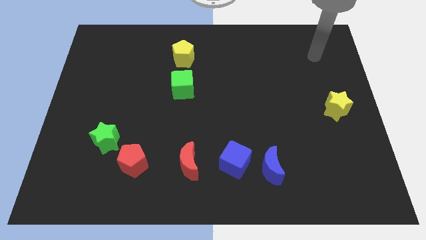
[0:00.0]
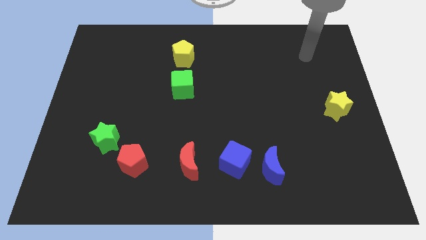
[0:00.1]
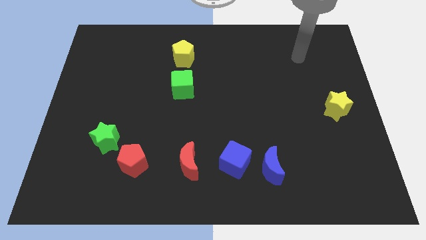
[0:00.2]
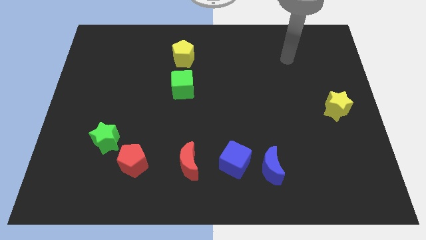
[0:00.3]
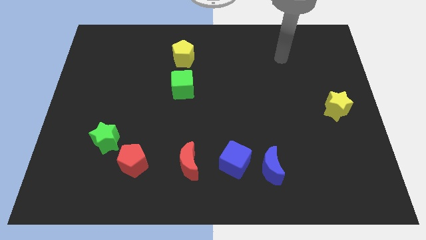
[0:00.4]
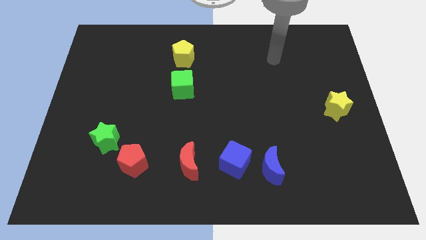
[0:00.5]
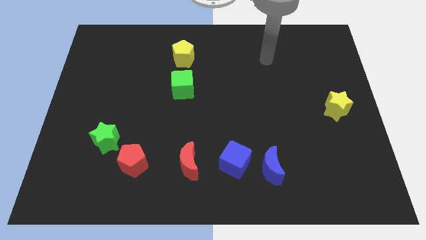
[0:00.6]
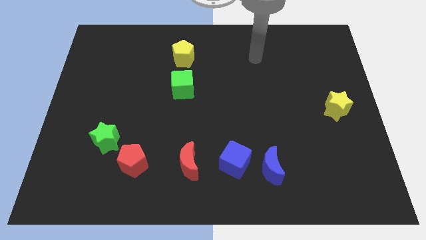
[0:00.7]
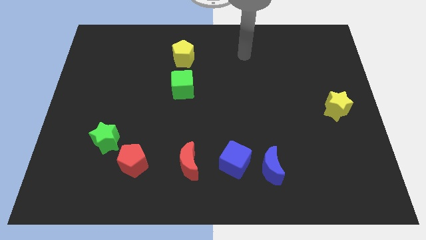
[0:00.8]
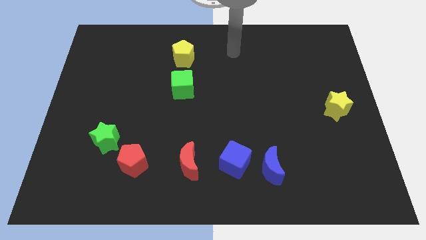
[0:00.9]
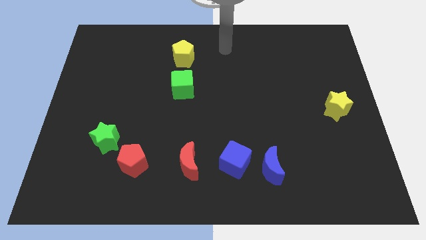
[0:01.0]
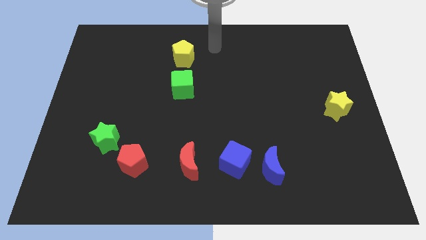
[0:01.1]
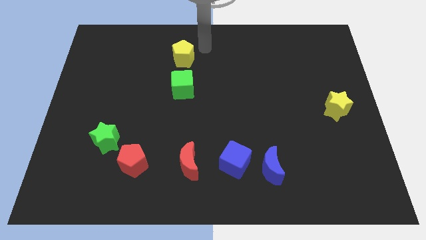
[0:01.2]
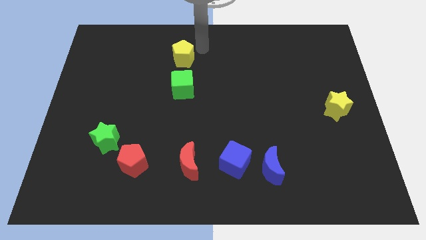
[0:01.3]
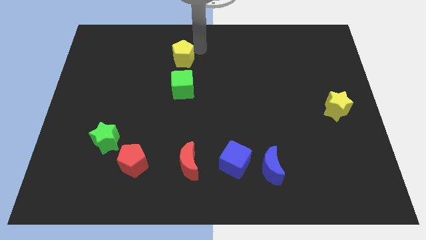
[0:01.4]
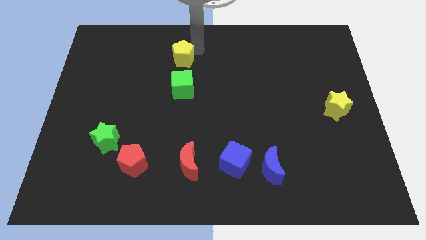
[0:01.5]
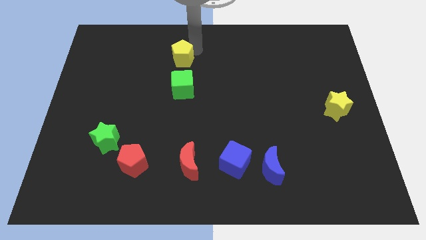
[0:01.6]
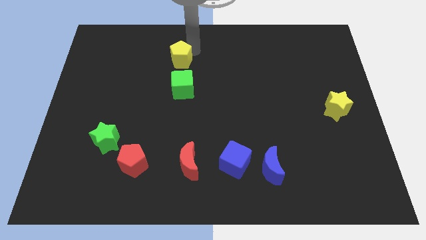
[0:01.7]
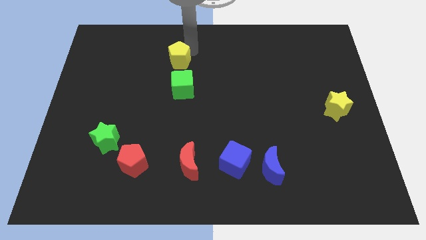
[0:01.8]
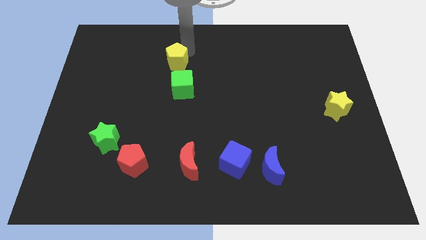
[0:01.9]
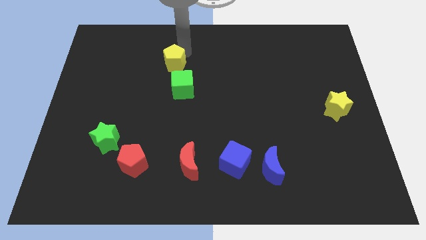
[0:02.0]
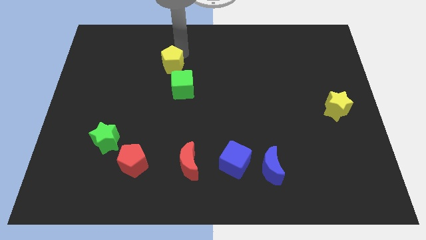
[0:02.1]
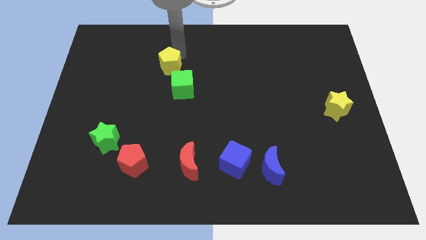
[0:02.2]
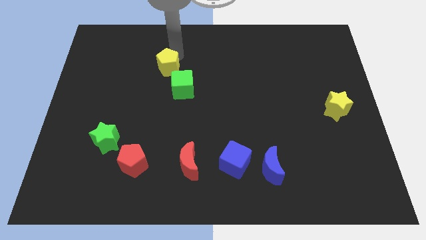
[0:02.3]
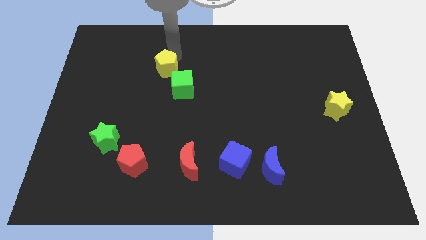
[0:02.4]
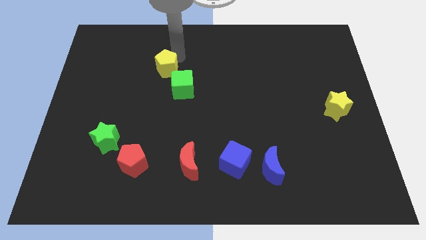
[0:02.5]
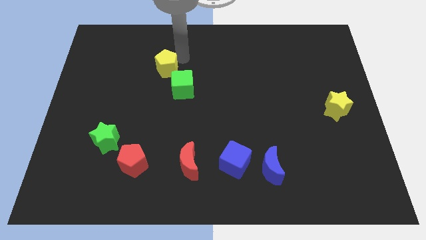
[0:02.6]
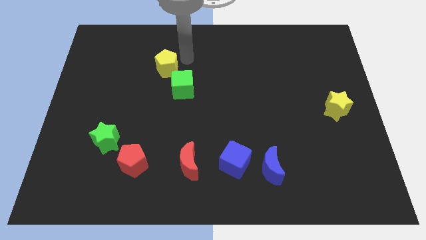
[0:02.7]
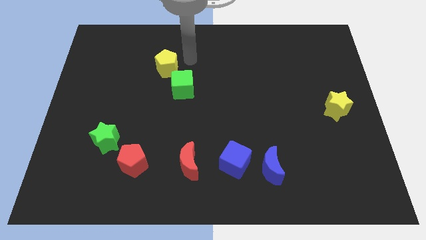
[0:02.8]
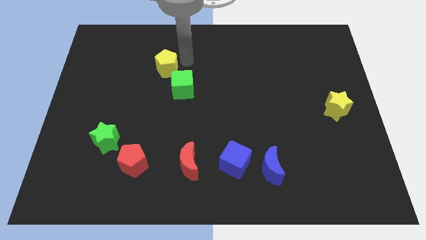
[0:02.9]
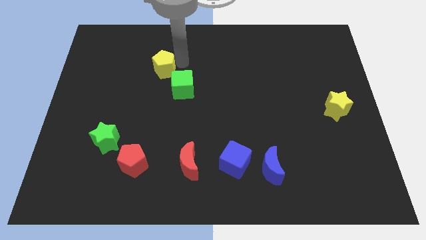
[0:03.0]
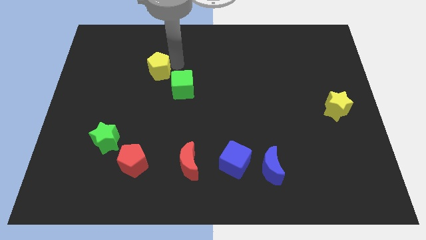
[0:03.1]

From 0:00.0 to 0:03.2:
push the yellow pentagon a bit down and left diagonally

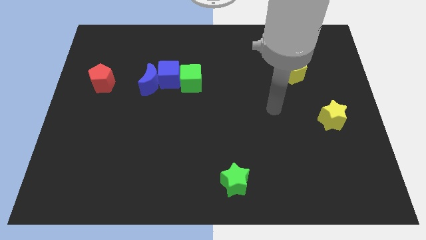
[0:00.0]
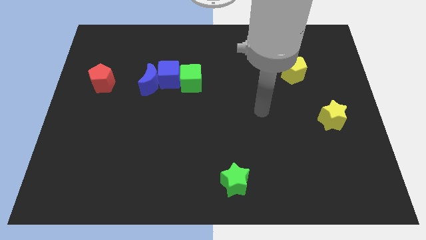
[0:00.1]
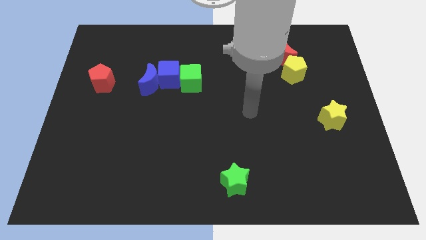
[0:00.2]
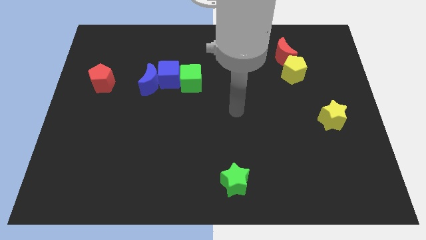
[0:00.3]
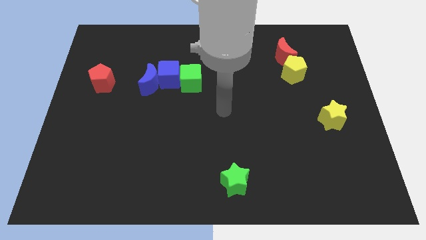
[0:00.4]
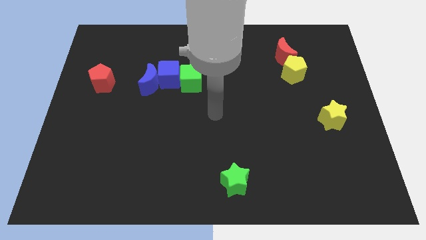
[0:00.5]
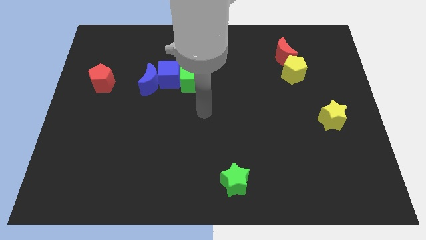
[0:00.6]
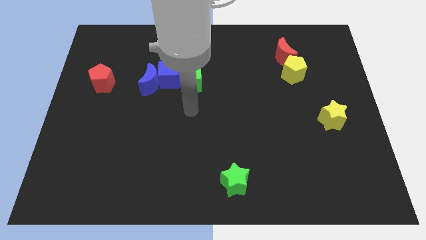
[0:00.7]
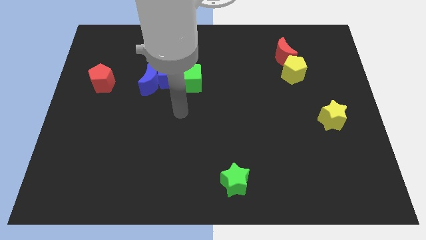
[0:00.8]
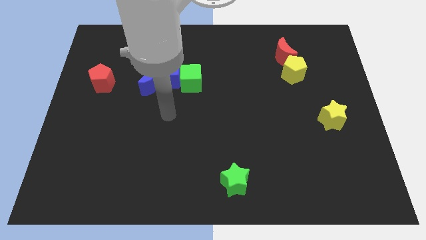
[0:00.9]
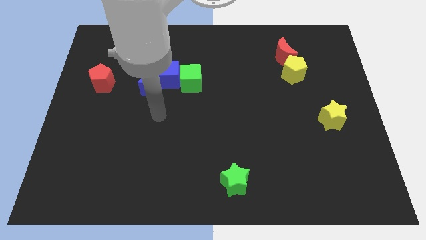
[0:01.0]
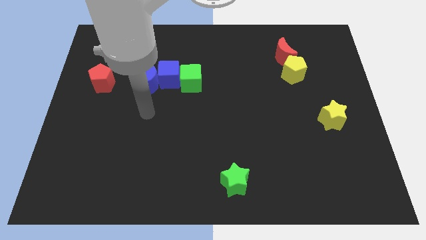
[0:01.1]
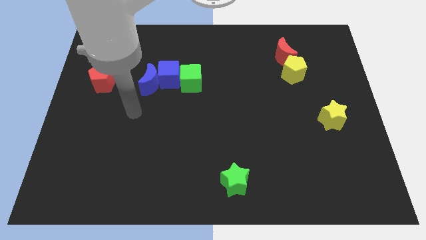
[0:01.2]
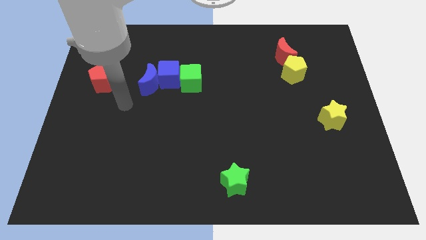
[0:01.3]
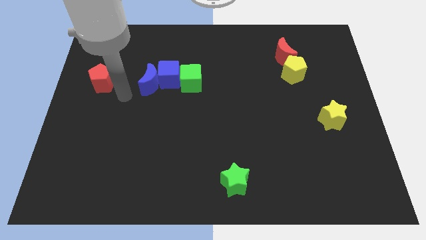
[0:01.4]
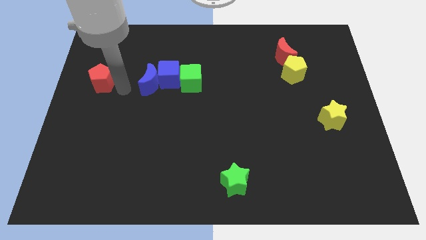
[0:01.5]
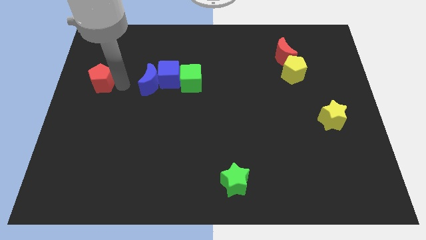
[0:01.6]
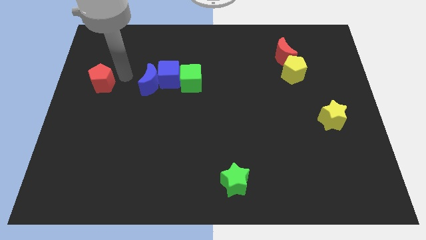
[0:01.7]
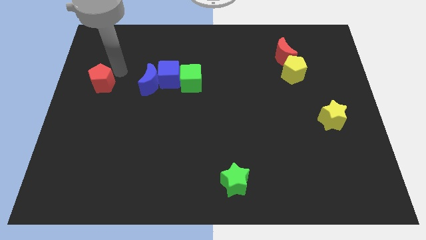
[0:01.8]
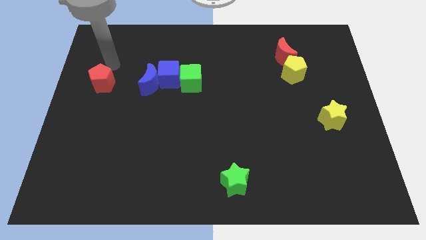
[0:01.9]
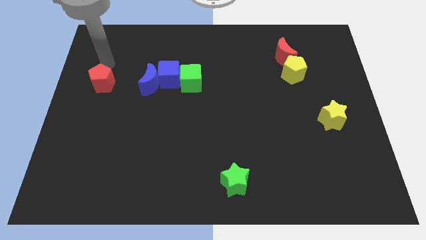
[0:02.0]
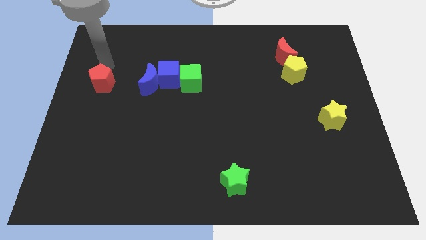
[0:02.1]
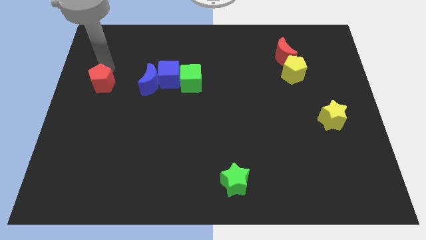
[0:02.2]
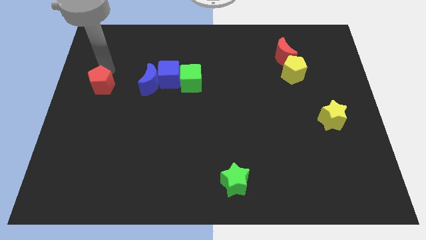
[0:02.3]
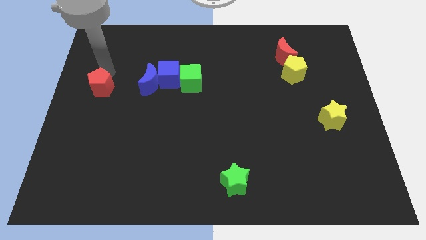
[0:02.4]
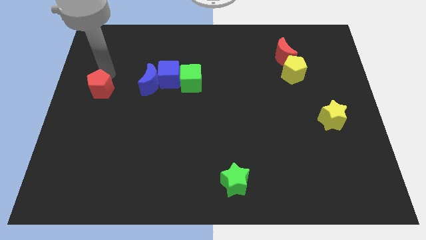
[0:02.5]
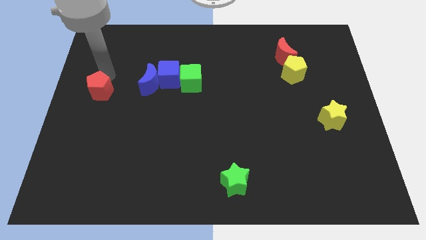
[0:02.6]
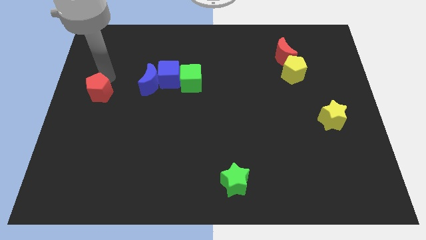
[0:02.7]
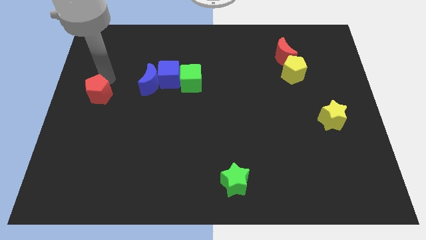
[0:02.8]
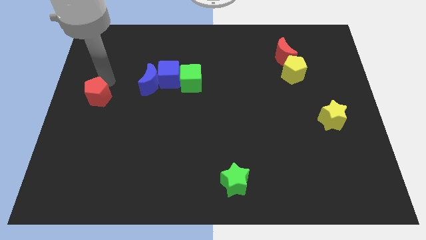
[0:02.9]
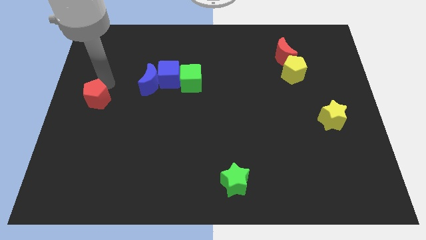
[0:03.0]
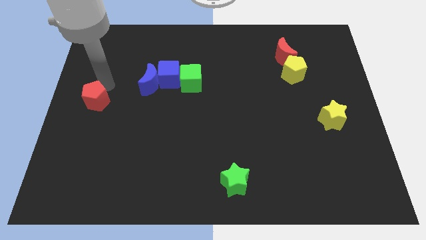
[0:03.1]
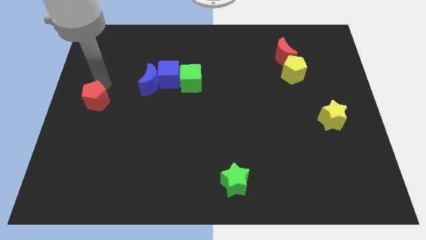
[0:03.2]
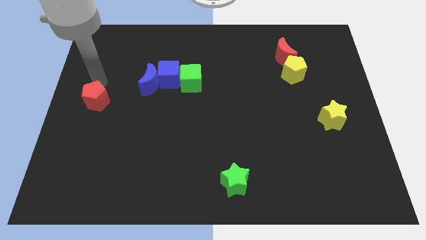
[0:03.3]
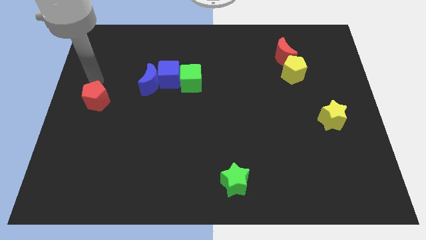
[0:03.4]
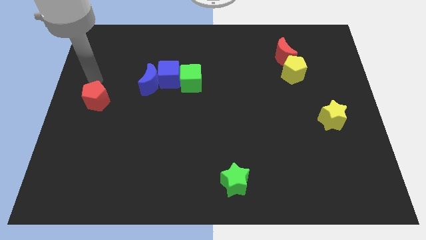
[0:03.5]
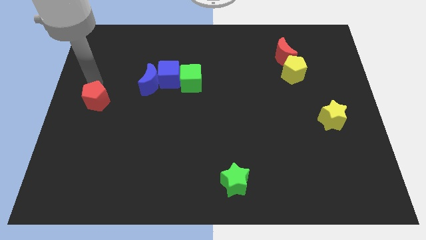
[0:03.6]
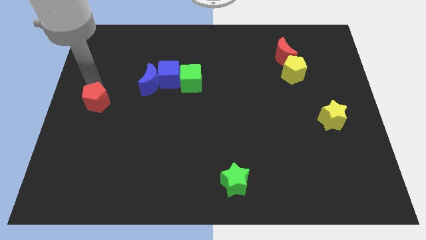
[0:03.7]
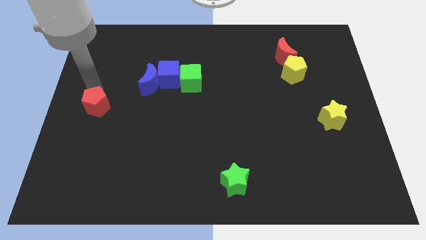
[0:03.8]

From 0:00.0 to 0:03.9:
push the red pentagon slightly downwards

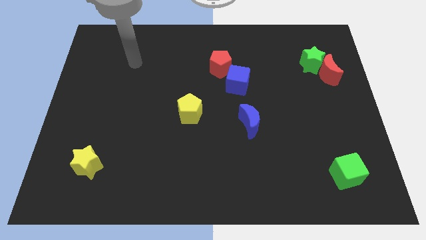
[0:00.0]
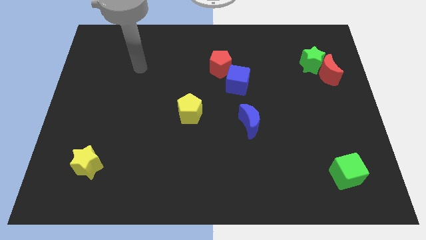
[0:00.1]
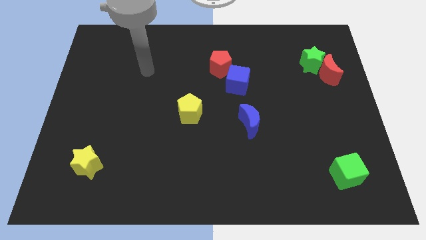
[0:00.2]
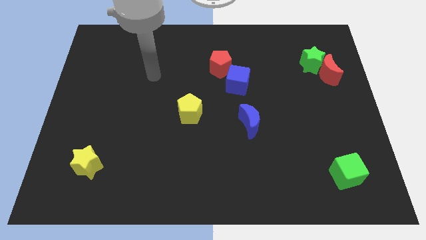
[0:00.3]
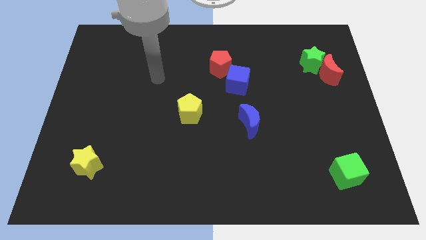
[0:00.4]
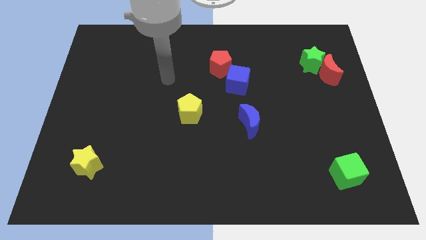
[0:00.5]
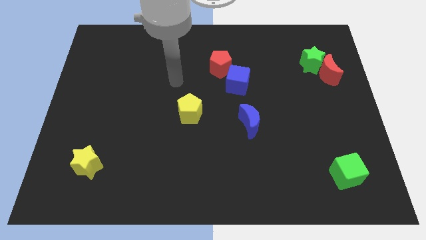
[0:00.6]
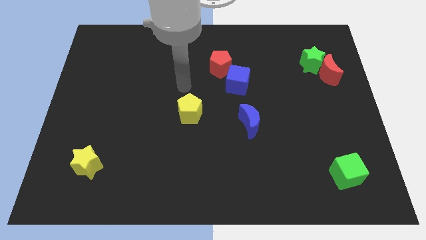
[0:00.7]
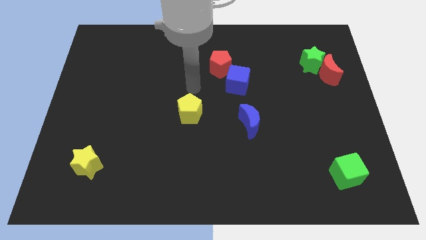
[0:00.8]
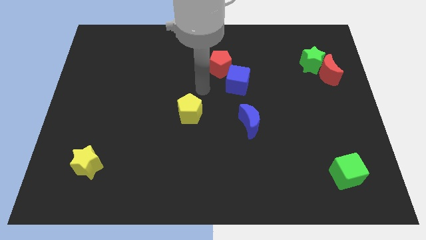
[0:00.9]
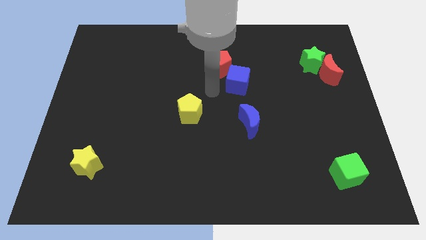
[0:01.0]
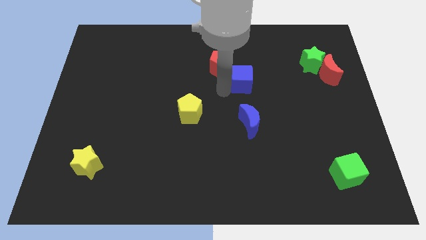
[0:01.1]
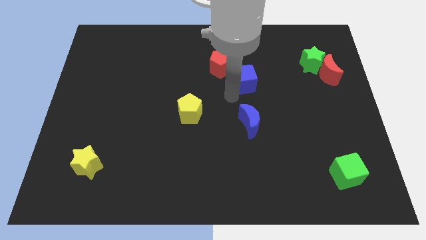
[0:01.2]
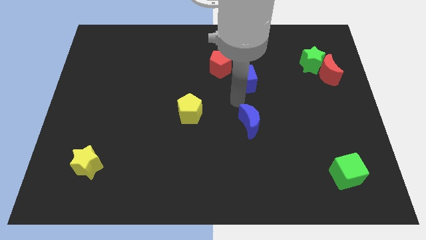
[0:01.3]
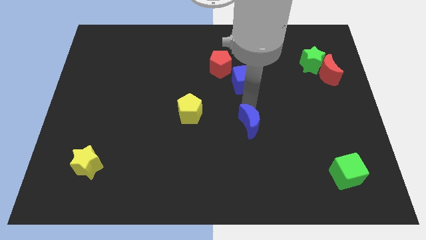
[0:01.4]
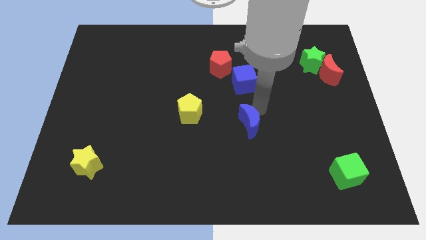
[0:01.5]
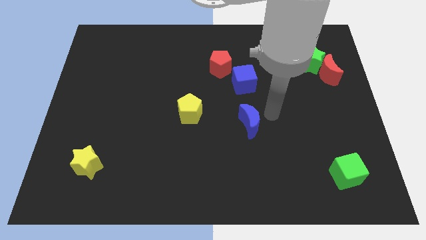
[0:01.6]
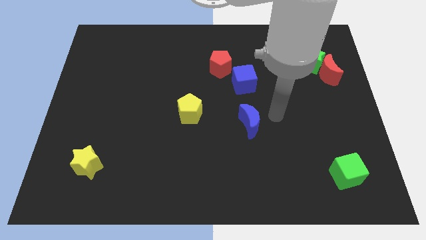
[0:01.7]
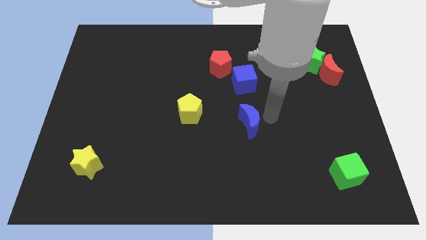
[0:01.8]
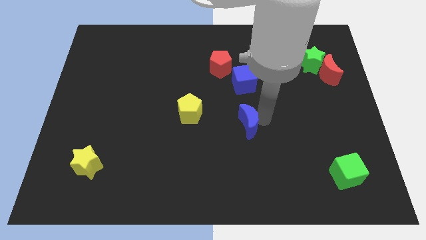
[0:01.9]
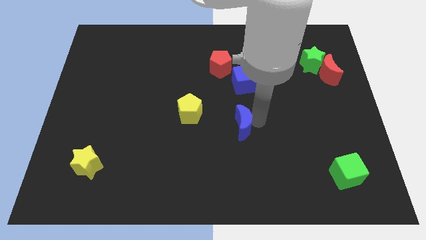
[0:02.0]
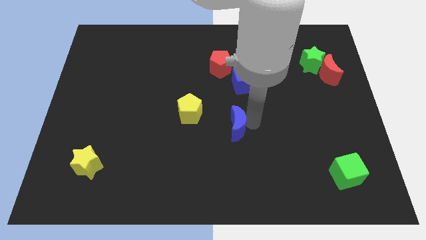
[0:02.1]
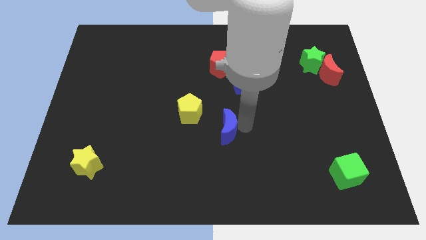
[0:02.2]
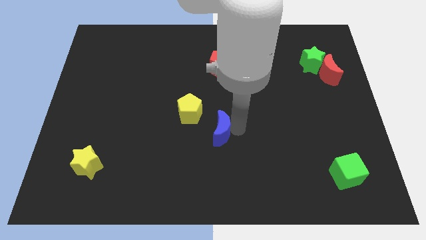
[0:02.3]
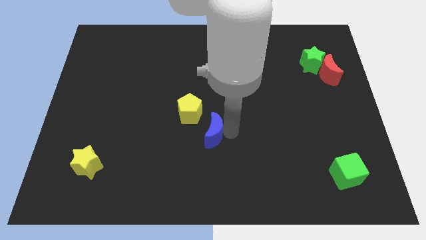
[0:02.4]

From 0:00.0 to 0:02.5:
push the blue moon a little left
